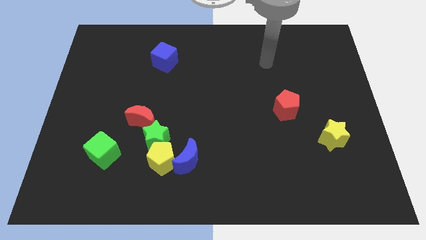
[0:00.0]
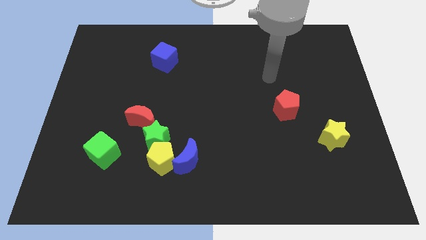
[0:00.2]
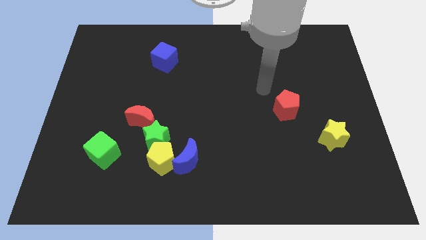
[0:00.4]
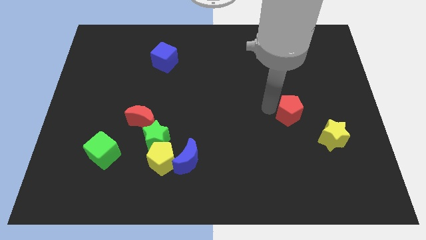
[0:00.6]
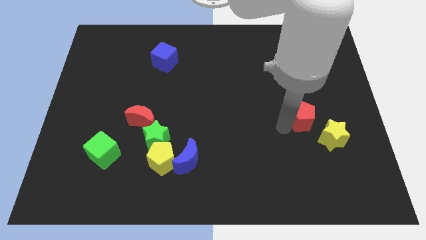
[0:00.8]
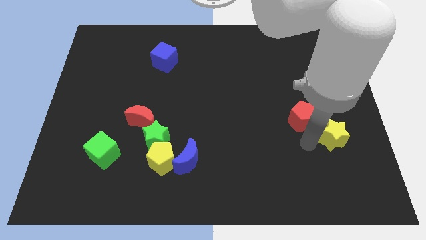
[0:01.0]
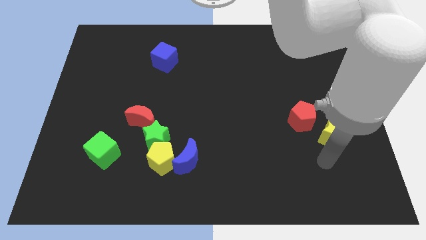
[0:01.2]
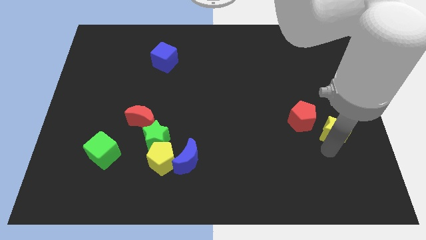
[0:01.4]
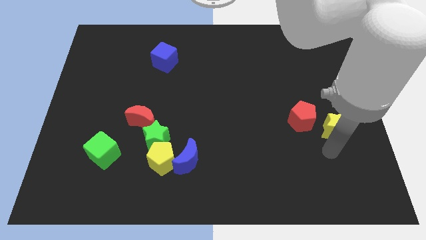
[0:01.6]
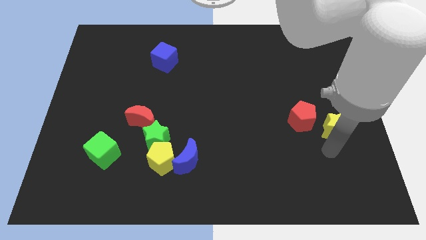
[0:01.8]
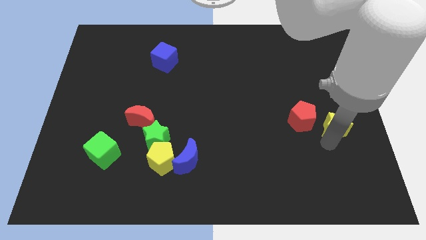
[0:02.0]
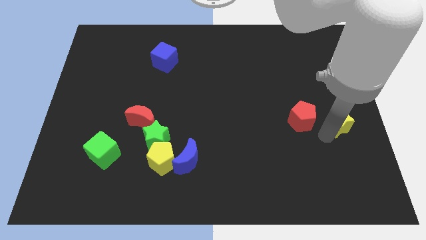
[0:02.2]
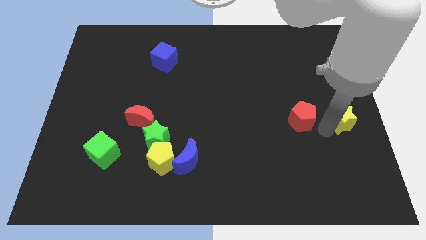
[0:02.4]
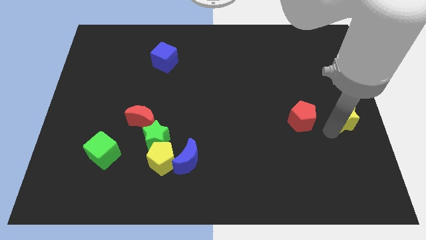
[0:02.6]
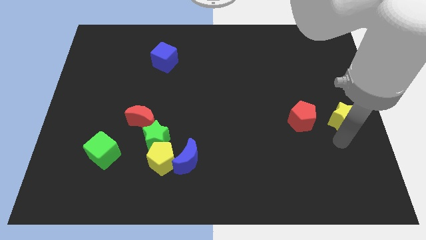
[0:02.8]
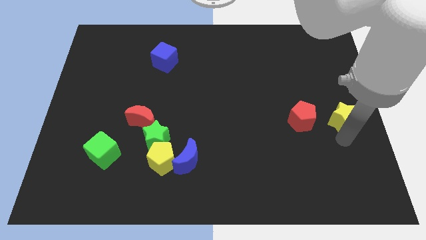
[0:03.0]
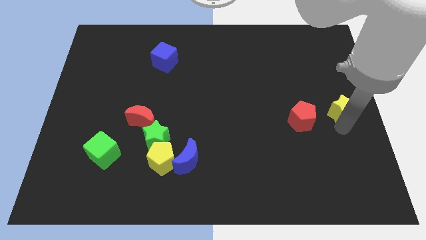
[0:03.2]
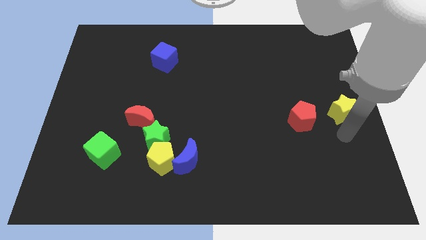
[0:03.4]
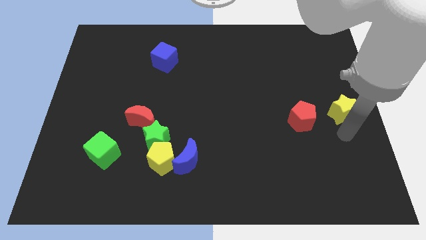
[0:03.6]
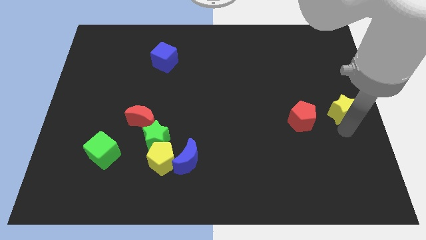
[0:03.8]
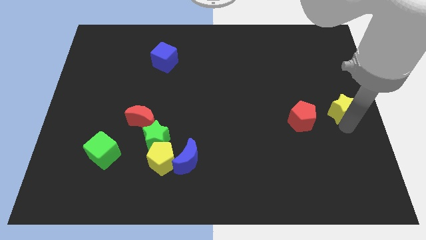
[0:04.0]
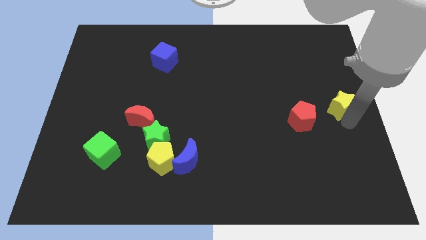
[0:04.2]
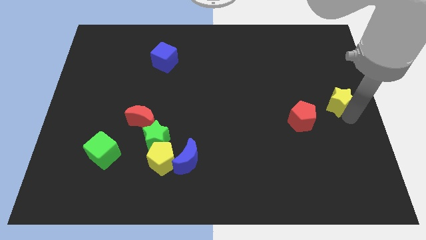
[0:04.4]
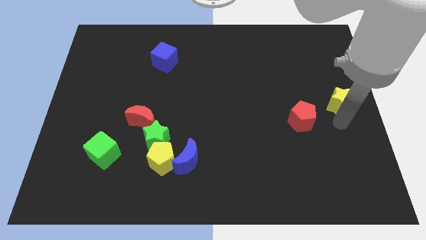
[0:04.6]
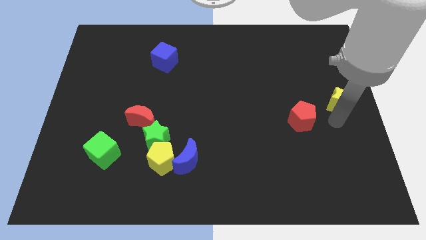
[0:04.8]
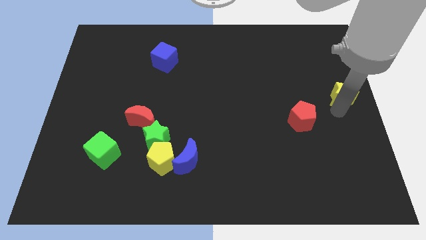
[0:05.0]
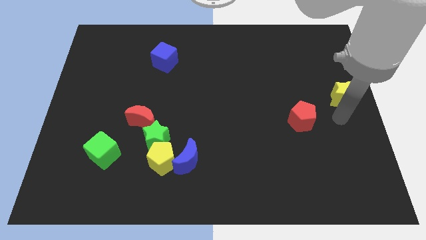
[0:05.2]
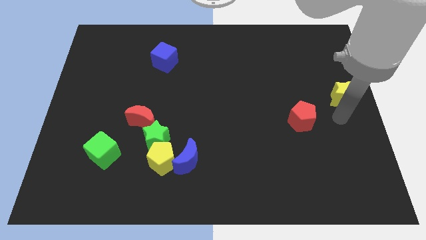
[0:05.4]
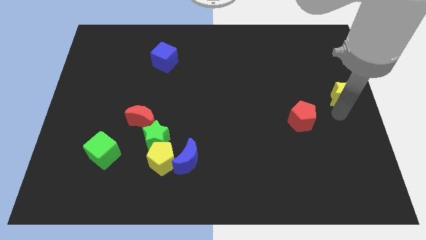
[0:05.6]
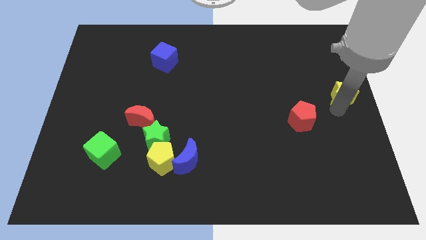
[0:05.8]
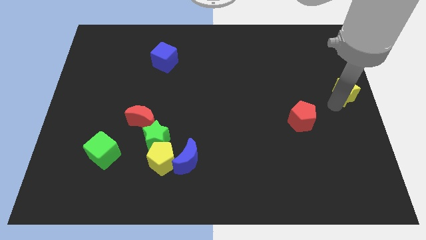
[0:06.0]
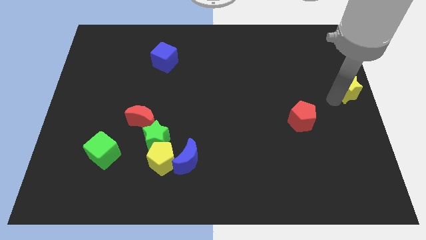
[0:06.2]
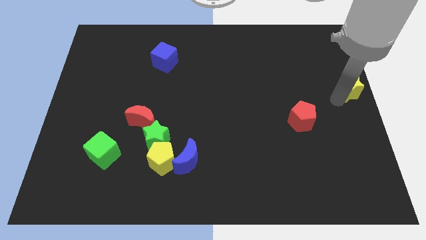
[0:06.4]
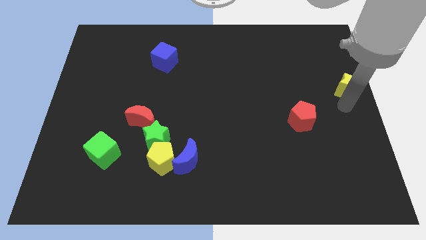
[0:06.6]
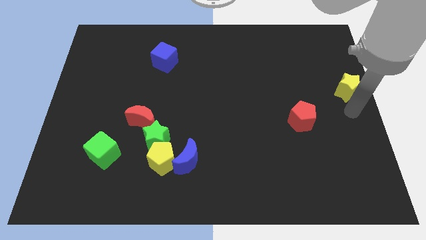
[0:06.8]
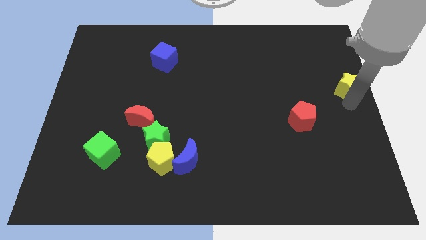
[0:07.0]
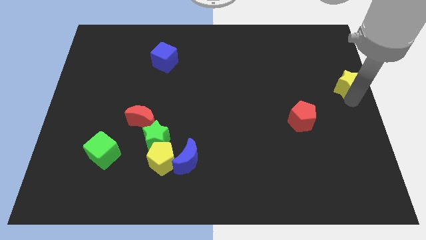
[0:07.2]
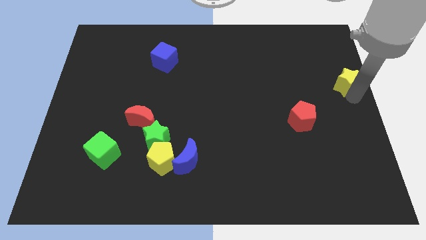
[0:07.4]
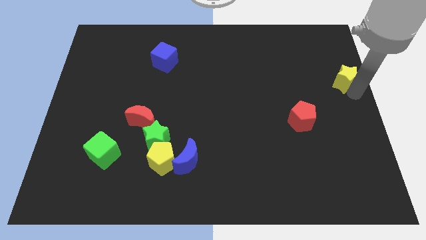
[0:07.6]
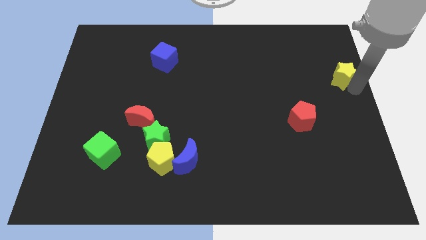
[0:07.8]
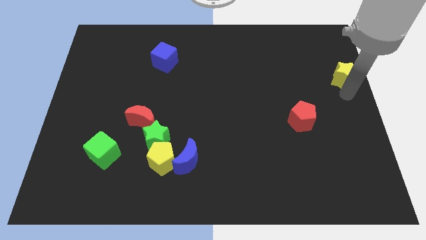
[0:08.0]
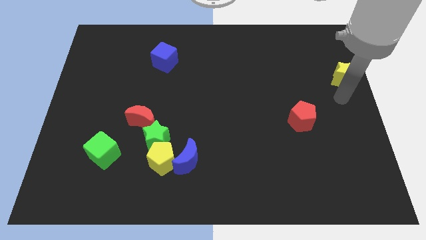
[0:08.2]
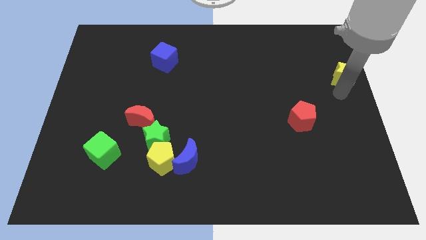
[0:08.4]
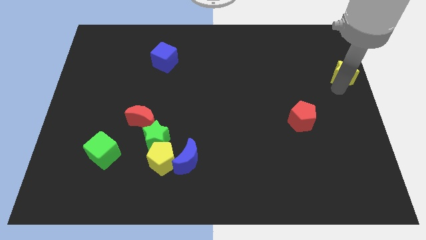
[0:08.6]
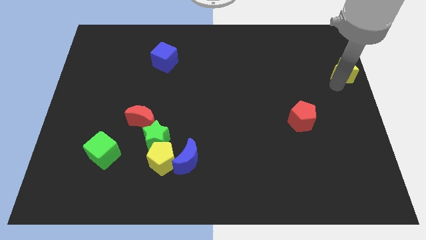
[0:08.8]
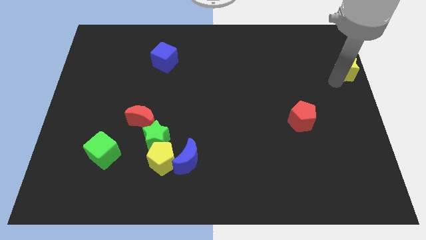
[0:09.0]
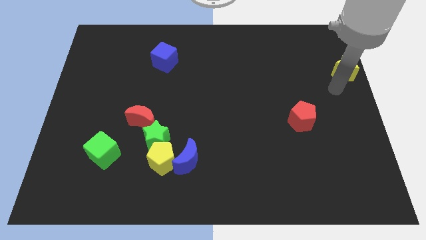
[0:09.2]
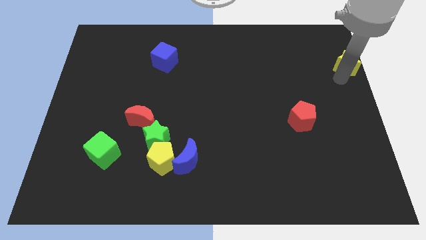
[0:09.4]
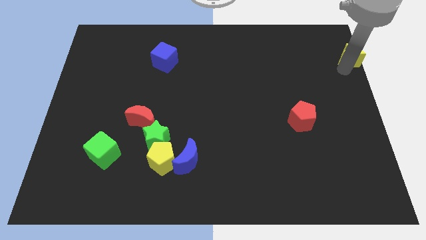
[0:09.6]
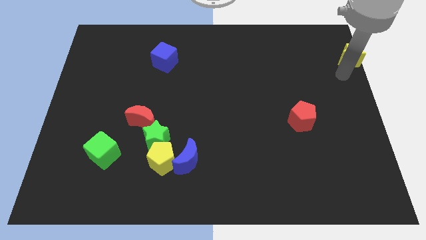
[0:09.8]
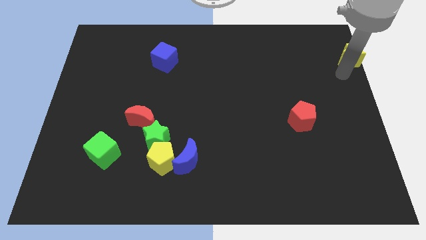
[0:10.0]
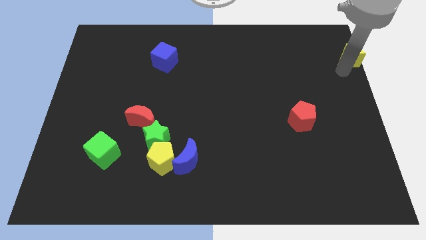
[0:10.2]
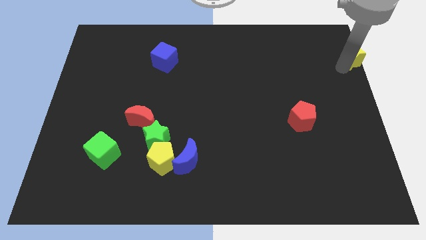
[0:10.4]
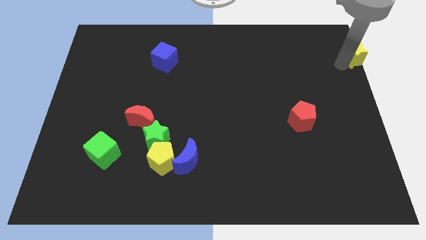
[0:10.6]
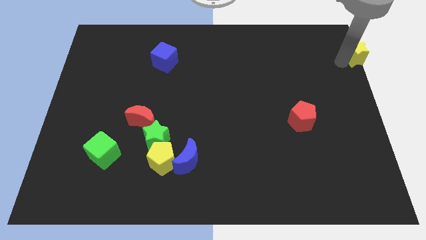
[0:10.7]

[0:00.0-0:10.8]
push the yellow star to the upper right corner

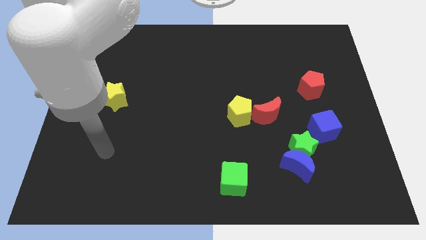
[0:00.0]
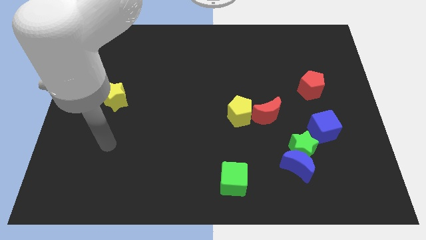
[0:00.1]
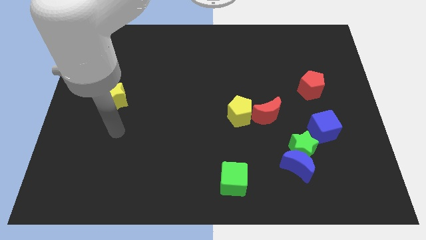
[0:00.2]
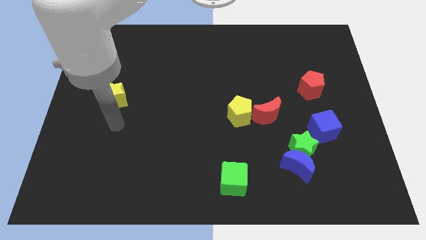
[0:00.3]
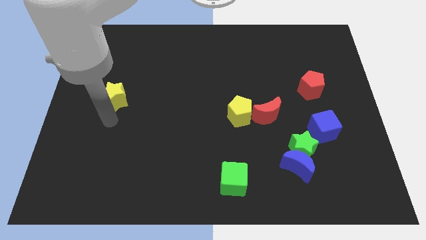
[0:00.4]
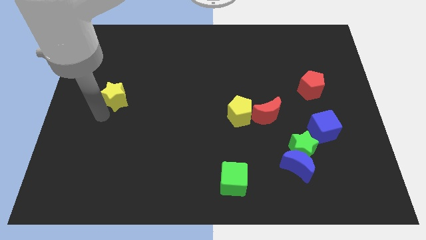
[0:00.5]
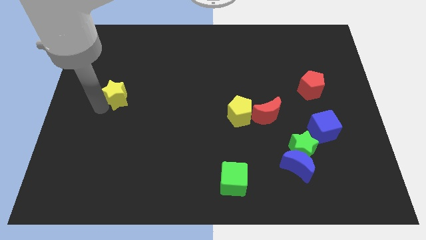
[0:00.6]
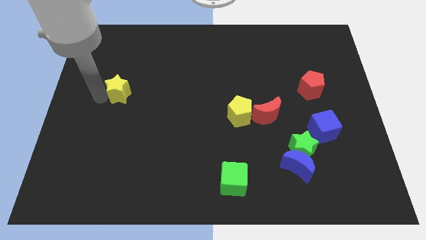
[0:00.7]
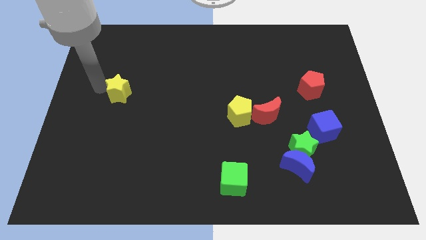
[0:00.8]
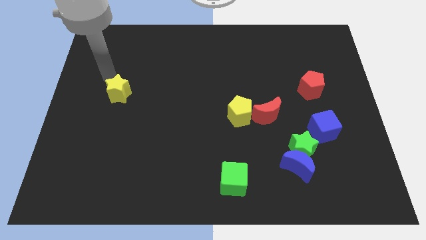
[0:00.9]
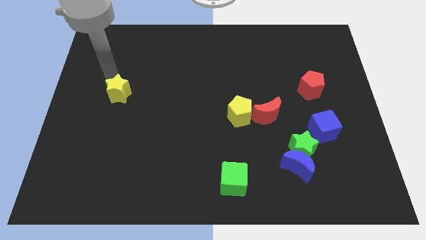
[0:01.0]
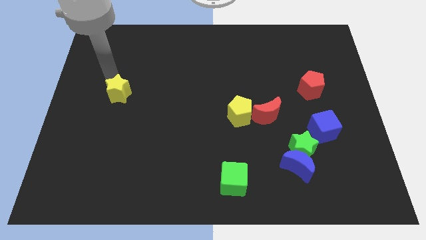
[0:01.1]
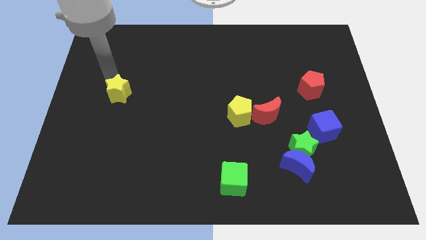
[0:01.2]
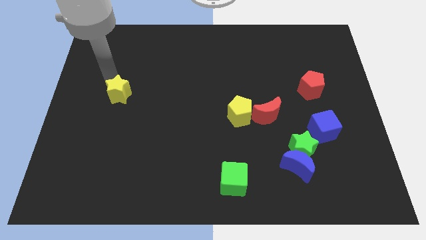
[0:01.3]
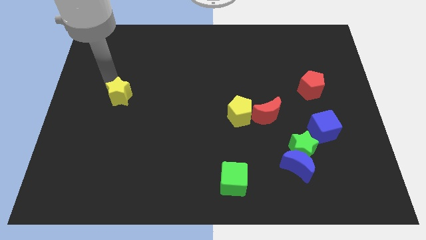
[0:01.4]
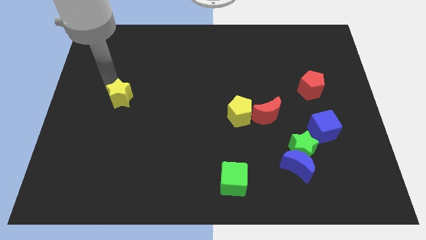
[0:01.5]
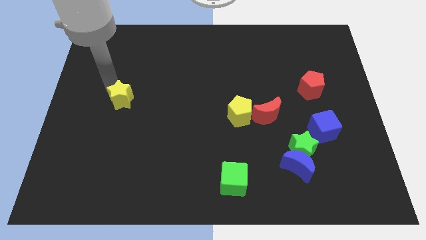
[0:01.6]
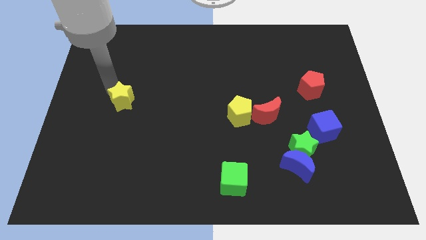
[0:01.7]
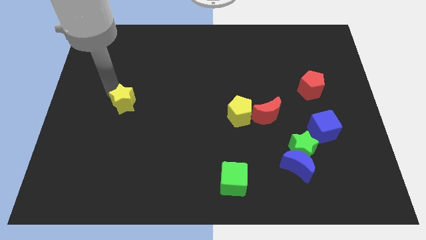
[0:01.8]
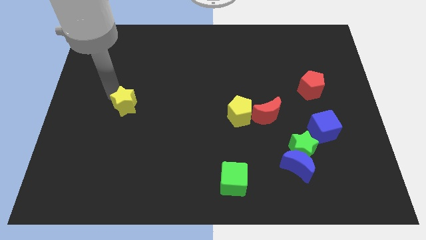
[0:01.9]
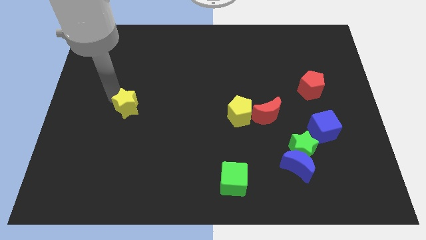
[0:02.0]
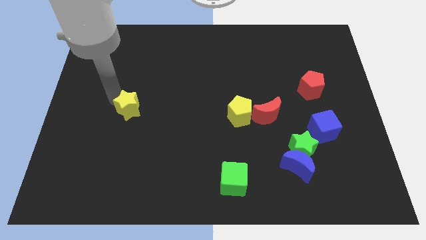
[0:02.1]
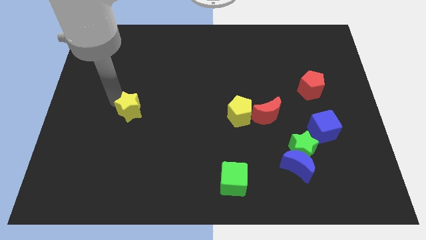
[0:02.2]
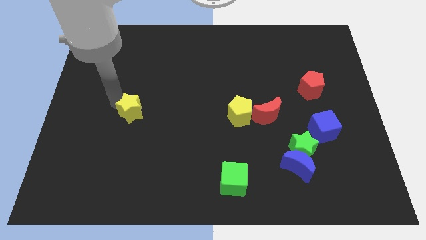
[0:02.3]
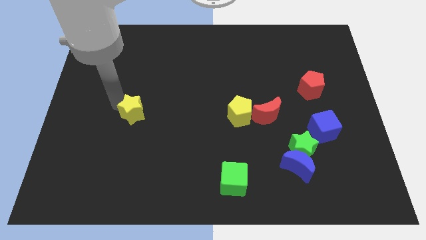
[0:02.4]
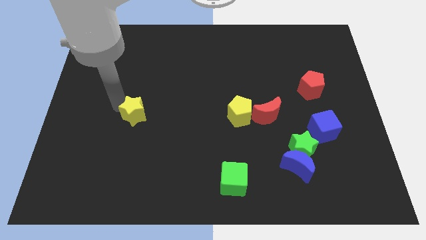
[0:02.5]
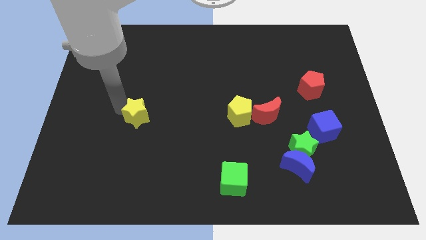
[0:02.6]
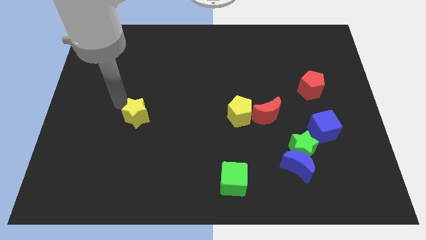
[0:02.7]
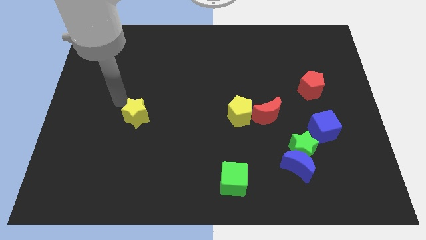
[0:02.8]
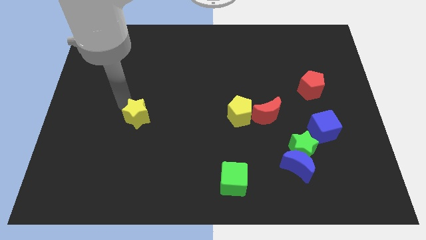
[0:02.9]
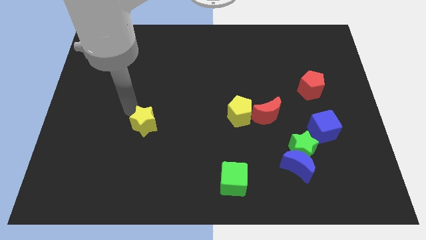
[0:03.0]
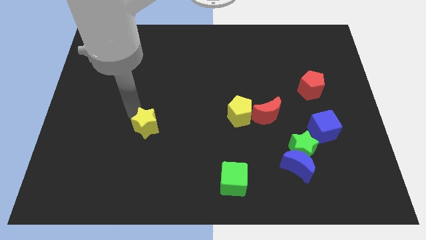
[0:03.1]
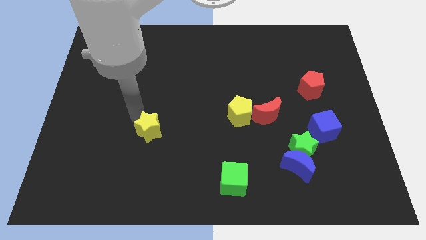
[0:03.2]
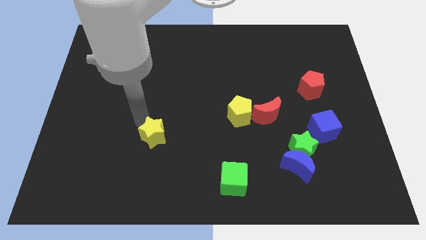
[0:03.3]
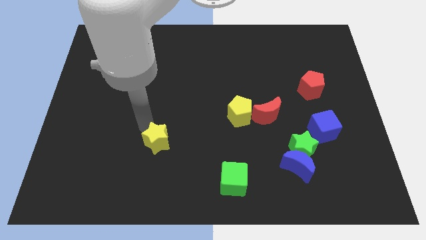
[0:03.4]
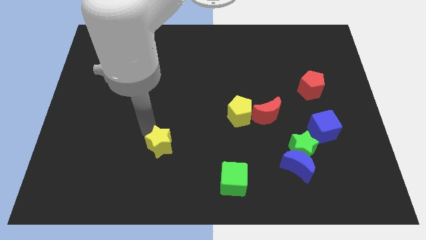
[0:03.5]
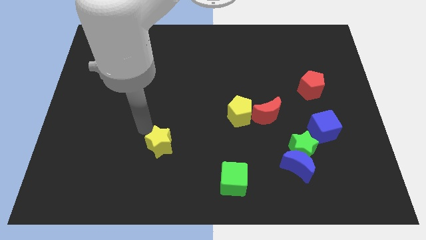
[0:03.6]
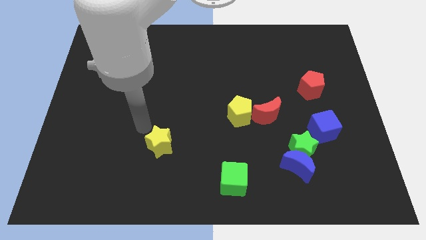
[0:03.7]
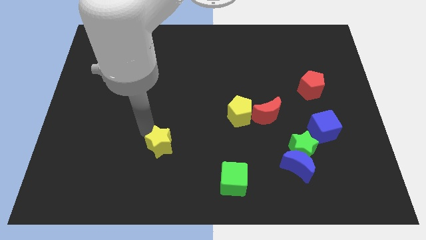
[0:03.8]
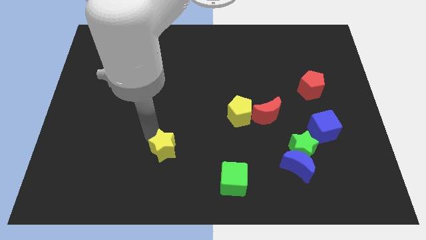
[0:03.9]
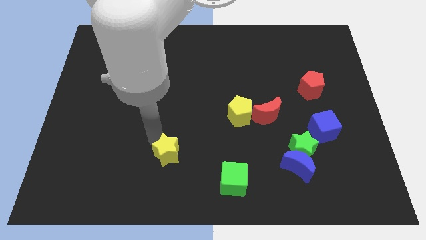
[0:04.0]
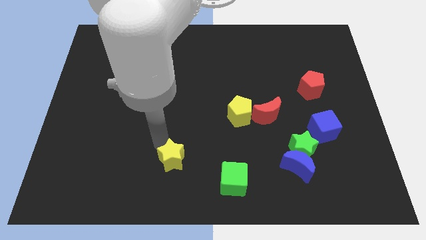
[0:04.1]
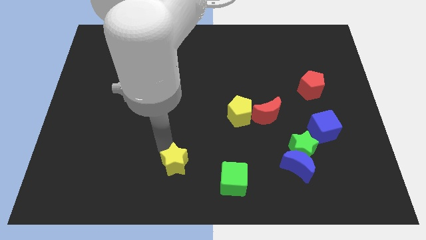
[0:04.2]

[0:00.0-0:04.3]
move the yellow star to the bottom
